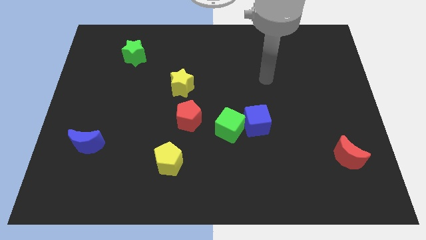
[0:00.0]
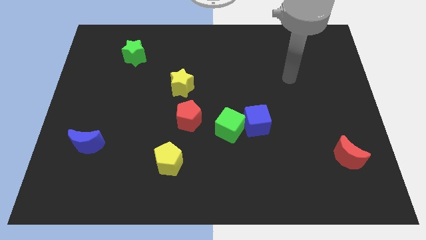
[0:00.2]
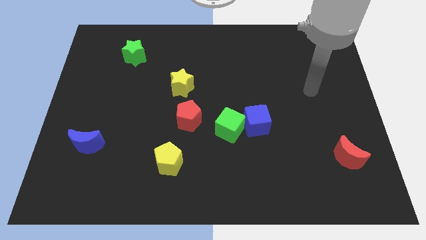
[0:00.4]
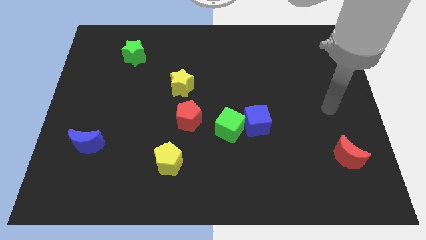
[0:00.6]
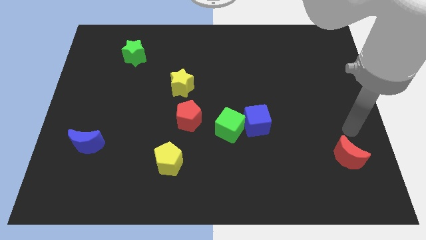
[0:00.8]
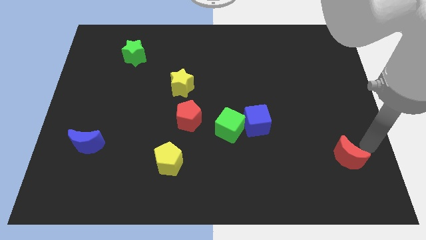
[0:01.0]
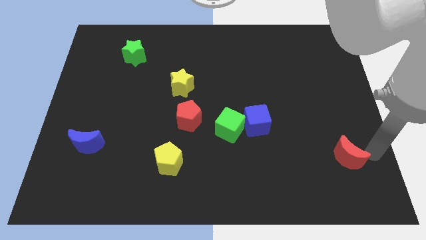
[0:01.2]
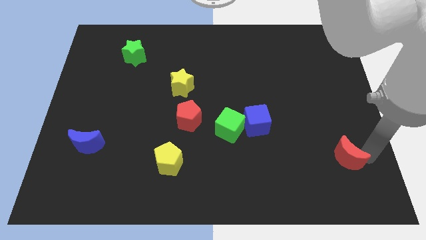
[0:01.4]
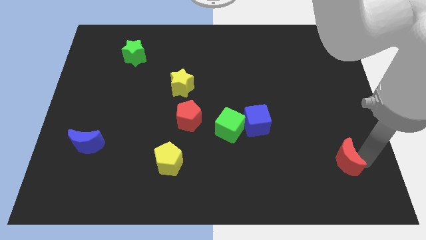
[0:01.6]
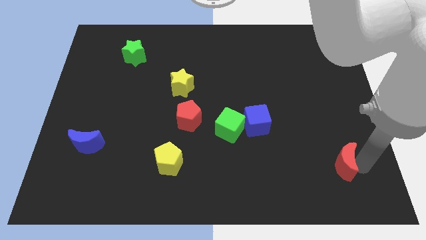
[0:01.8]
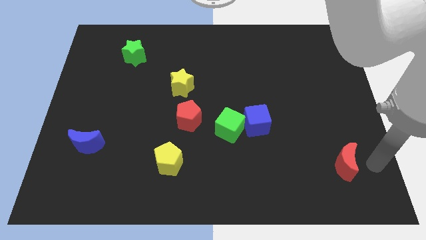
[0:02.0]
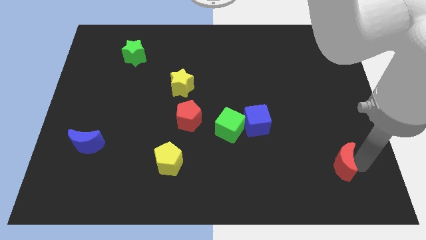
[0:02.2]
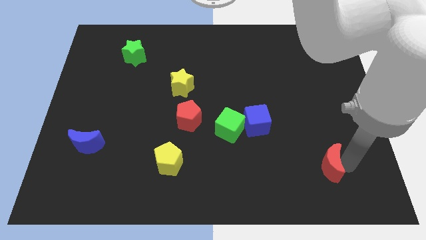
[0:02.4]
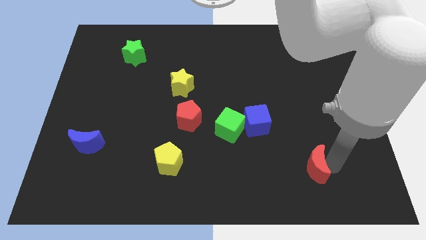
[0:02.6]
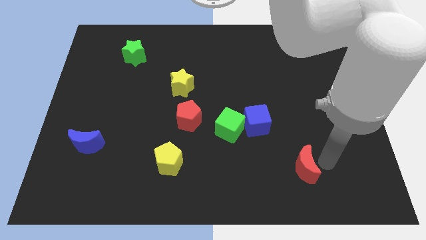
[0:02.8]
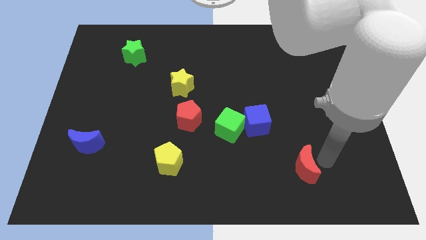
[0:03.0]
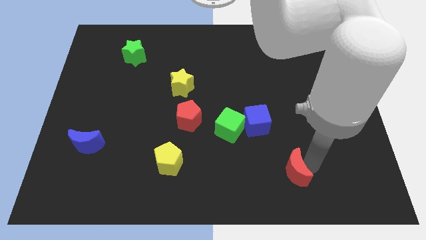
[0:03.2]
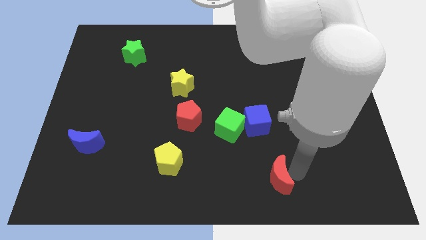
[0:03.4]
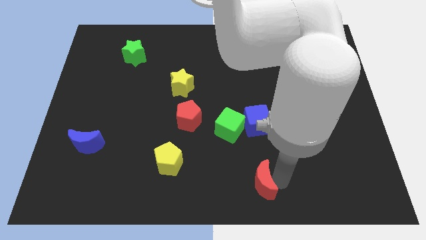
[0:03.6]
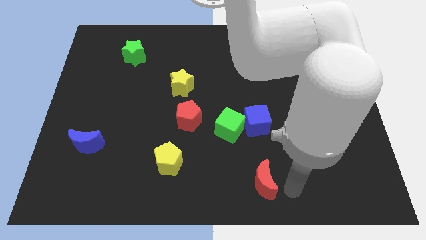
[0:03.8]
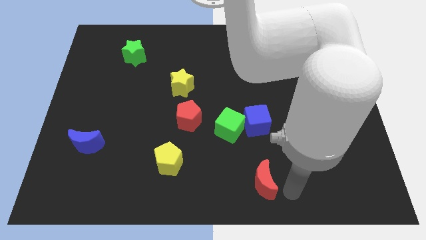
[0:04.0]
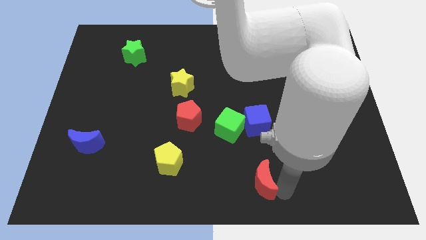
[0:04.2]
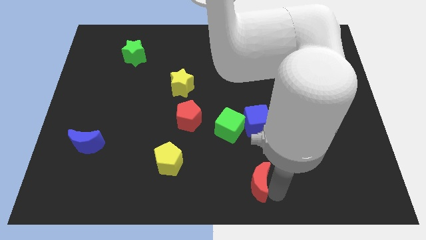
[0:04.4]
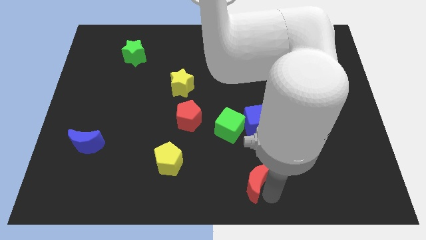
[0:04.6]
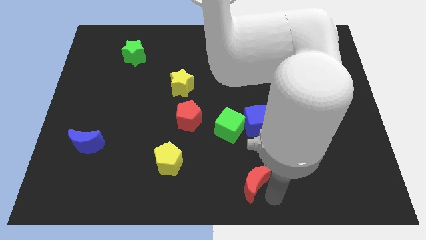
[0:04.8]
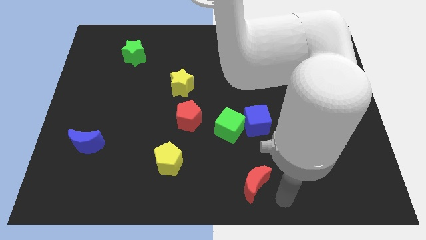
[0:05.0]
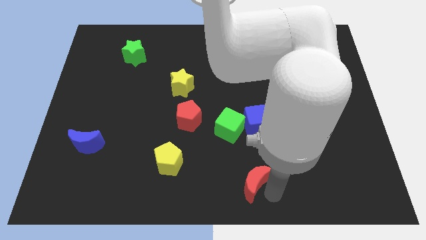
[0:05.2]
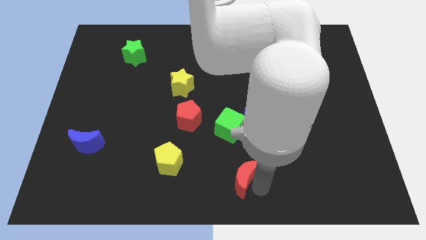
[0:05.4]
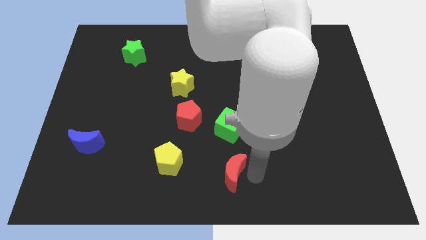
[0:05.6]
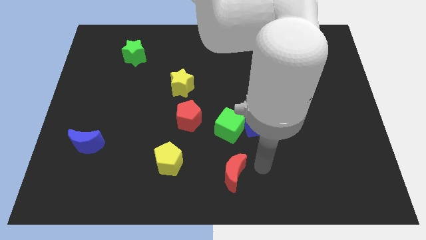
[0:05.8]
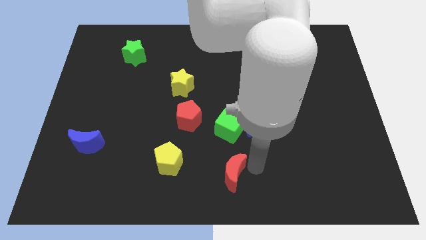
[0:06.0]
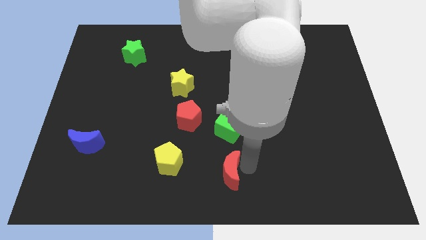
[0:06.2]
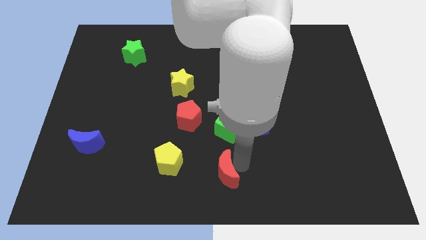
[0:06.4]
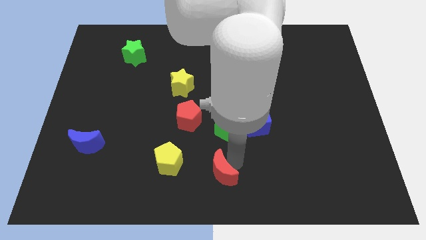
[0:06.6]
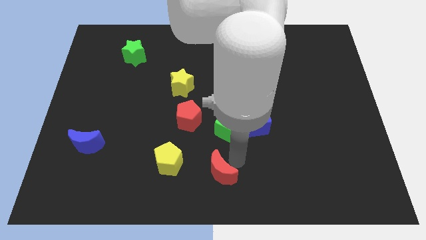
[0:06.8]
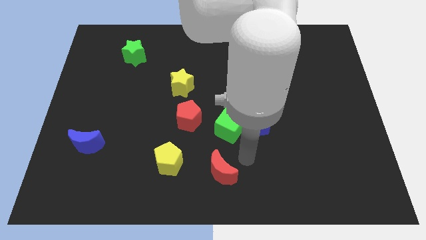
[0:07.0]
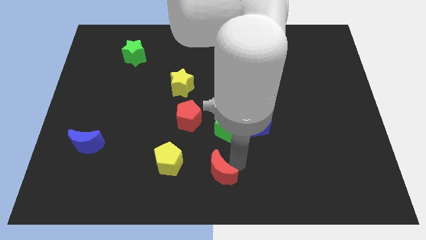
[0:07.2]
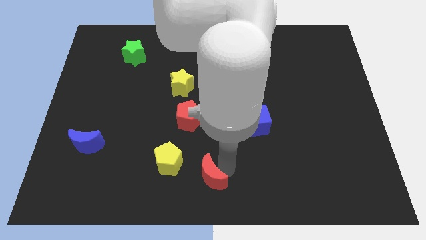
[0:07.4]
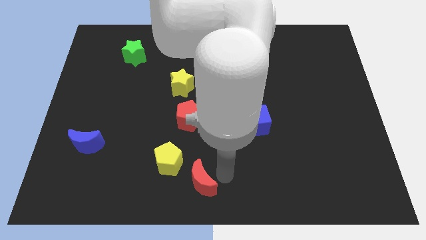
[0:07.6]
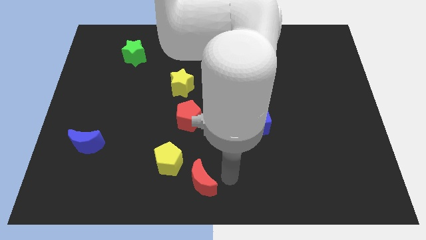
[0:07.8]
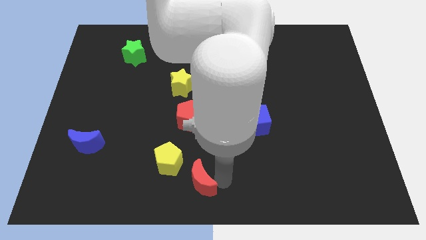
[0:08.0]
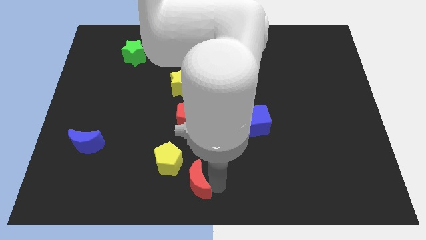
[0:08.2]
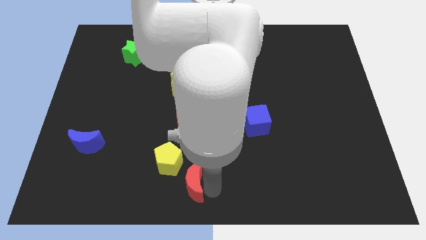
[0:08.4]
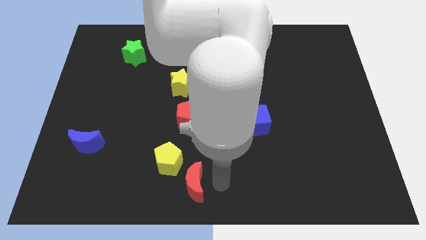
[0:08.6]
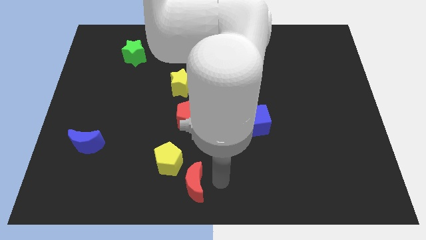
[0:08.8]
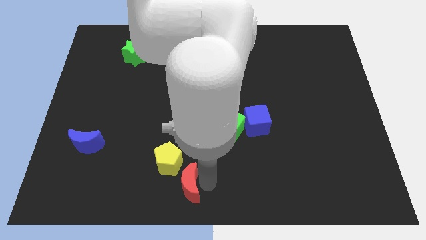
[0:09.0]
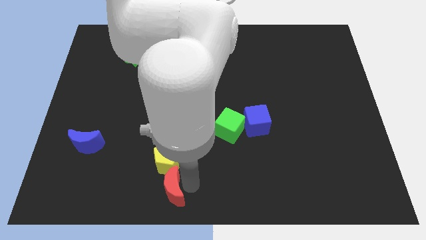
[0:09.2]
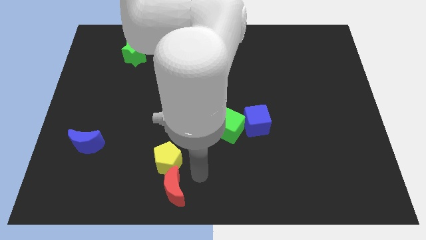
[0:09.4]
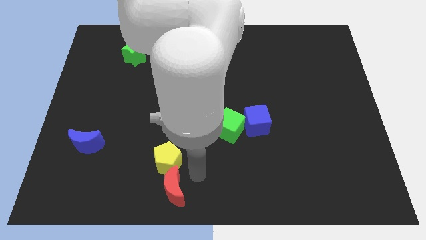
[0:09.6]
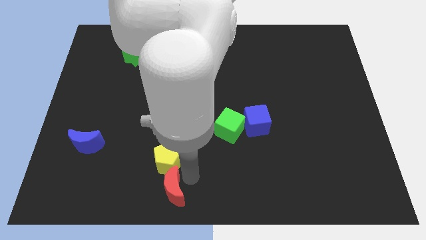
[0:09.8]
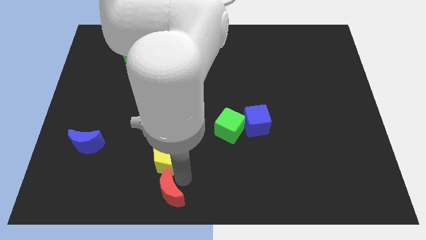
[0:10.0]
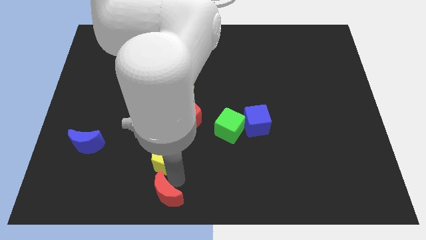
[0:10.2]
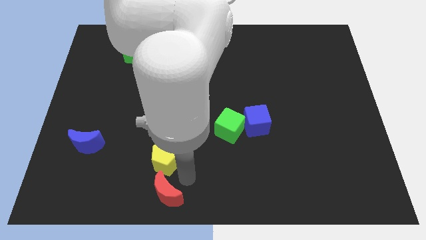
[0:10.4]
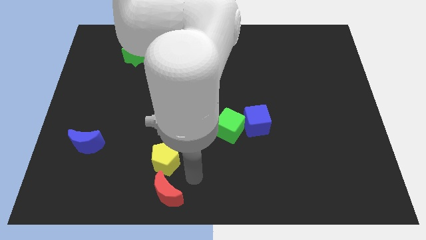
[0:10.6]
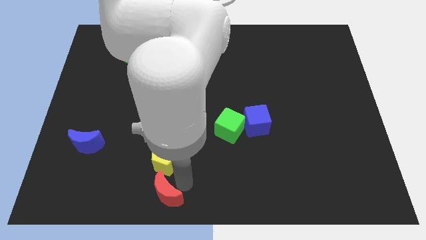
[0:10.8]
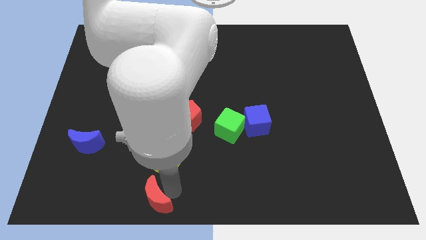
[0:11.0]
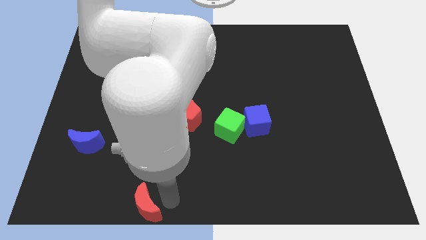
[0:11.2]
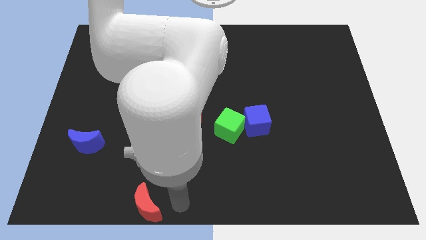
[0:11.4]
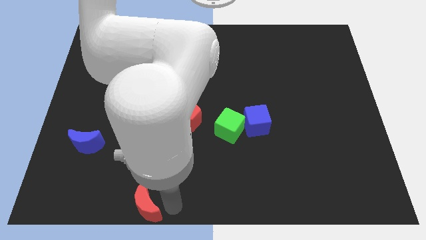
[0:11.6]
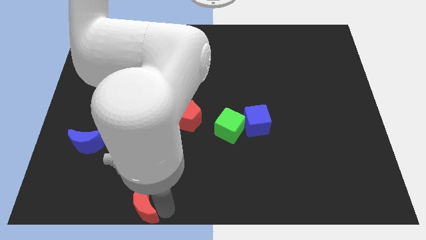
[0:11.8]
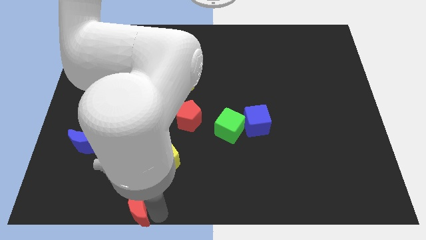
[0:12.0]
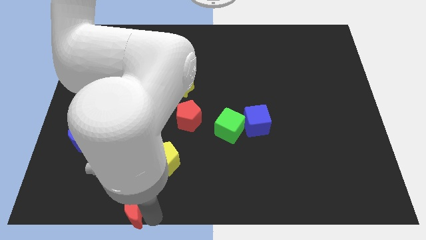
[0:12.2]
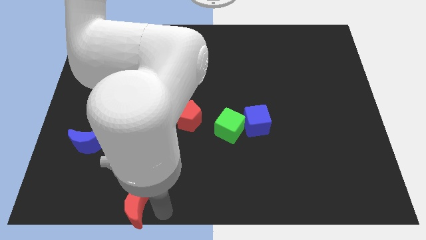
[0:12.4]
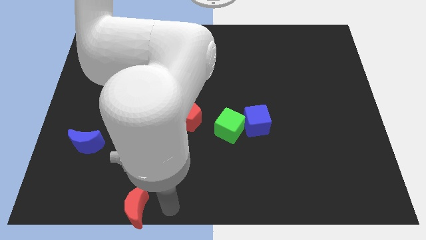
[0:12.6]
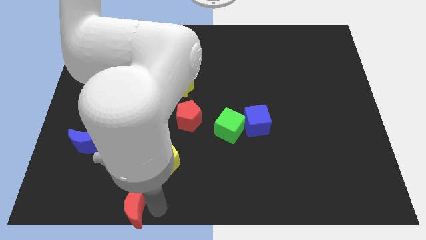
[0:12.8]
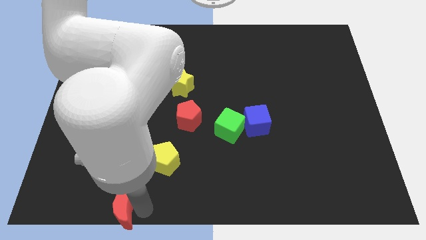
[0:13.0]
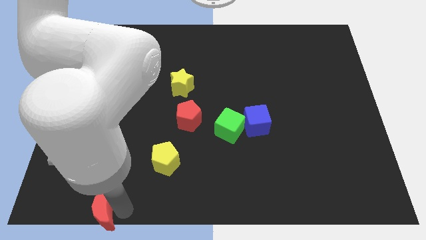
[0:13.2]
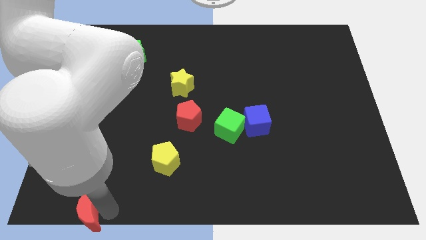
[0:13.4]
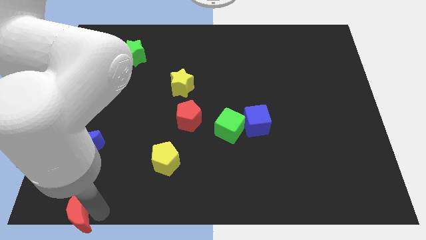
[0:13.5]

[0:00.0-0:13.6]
put the red moon to the bottom left corner
